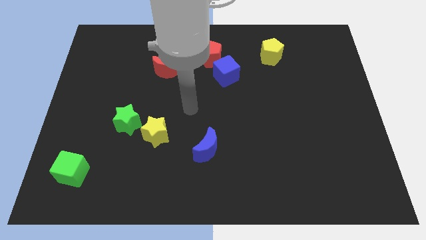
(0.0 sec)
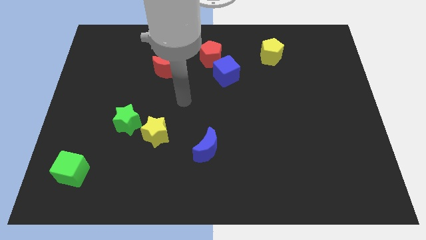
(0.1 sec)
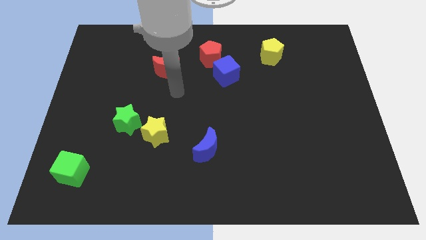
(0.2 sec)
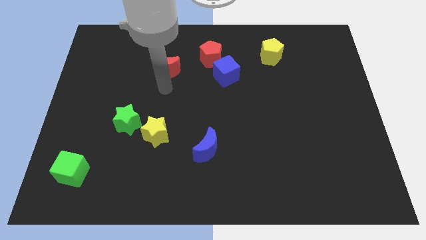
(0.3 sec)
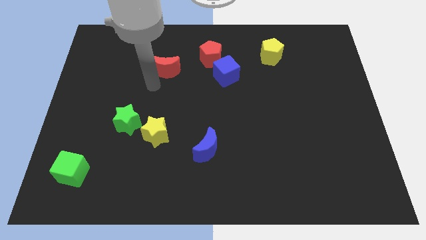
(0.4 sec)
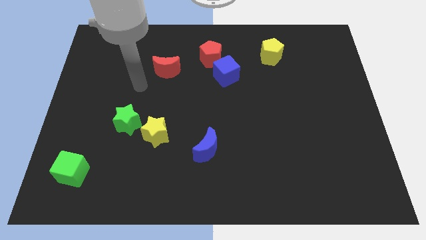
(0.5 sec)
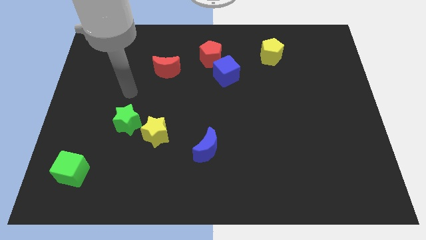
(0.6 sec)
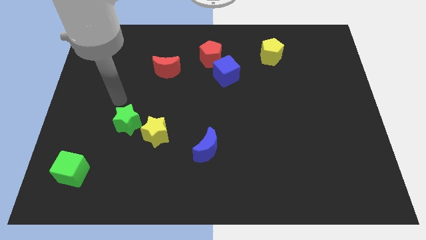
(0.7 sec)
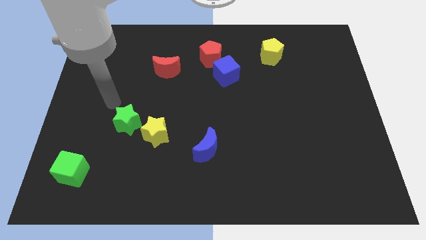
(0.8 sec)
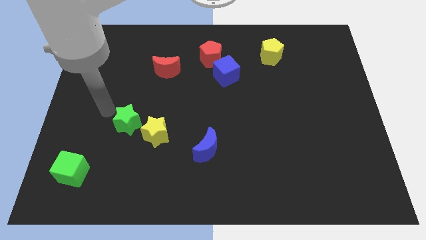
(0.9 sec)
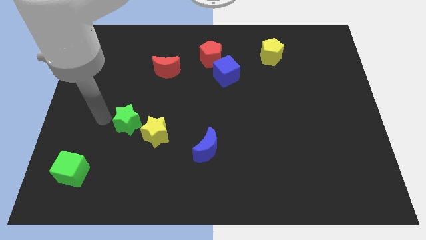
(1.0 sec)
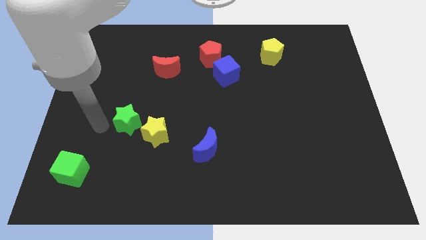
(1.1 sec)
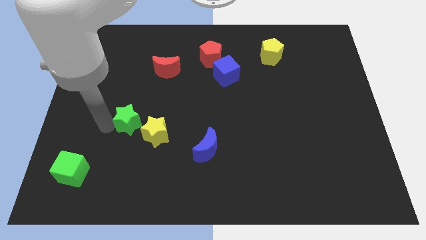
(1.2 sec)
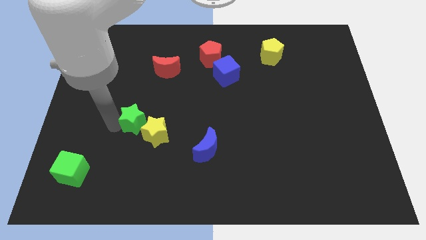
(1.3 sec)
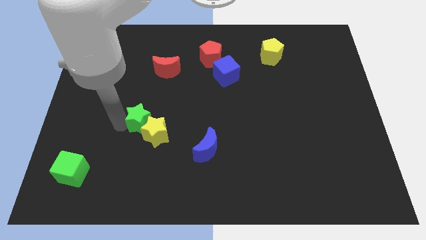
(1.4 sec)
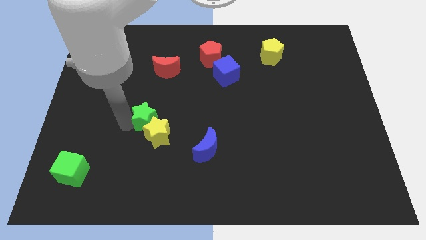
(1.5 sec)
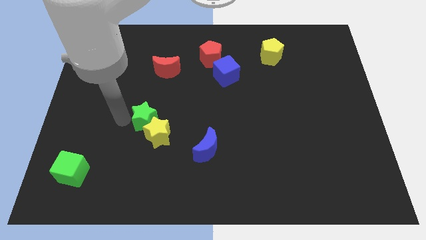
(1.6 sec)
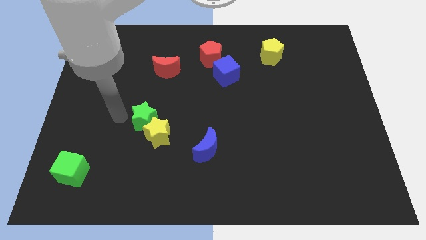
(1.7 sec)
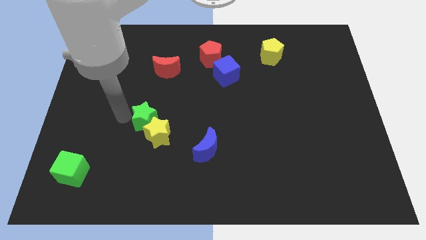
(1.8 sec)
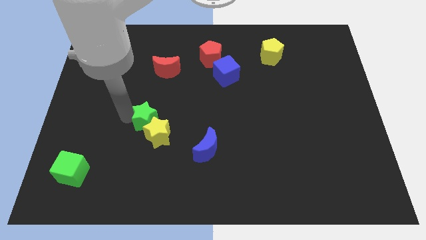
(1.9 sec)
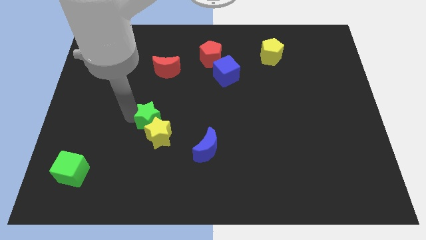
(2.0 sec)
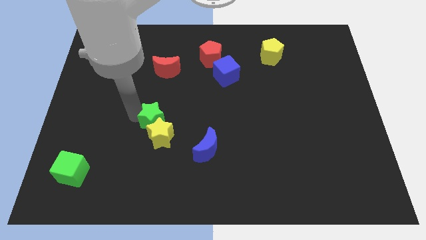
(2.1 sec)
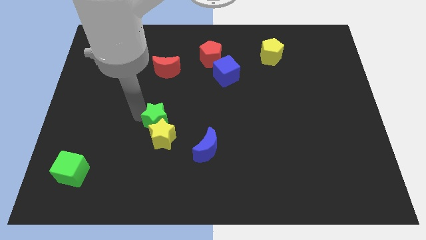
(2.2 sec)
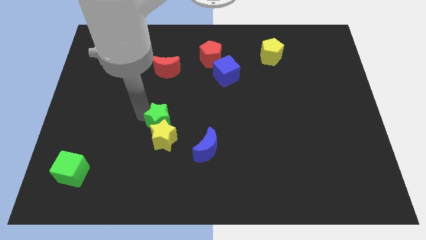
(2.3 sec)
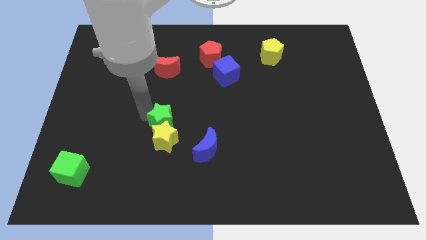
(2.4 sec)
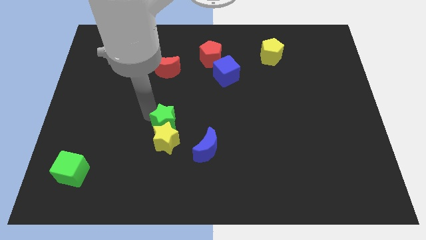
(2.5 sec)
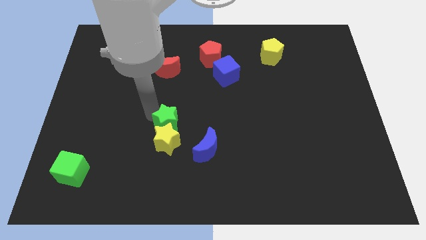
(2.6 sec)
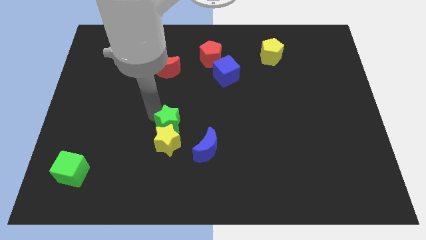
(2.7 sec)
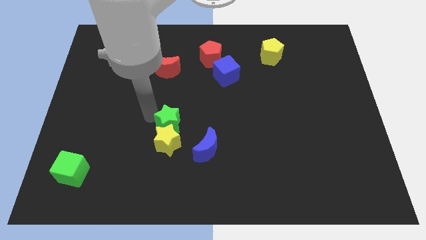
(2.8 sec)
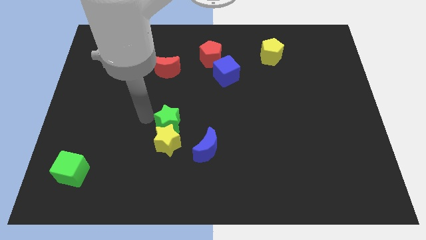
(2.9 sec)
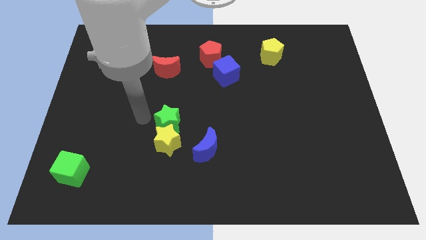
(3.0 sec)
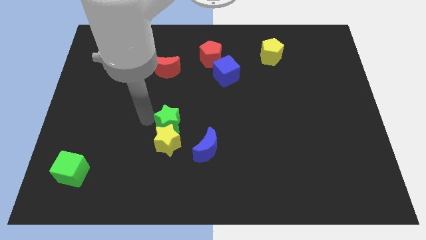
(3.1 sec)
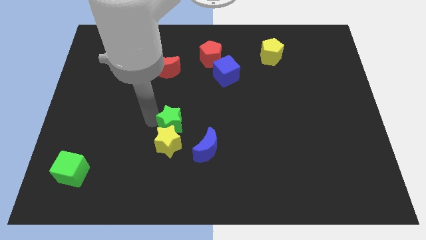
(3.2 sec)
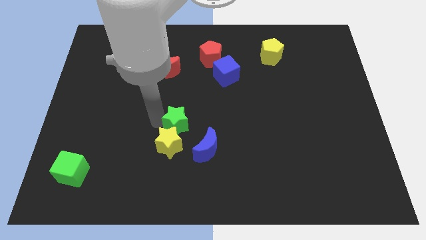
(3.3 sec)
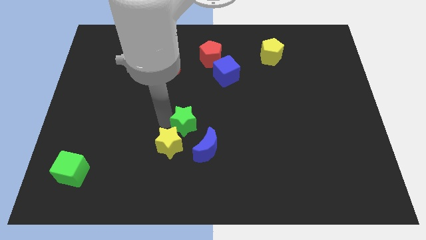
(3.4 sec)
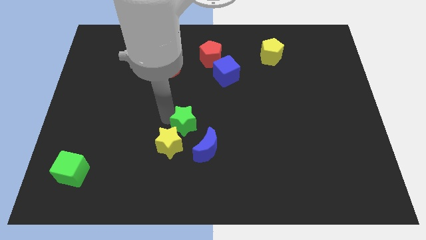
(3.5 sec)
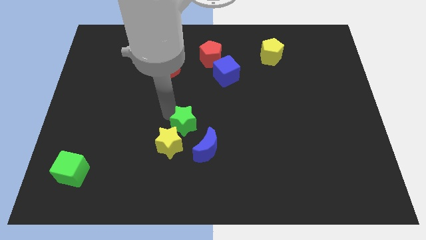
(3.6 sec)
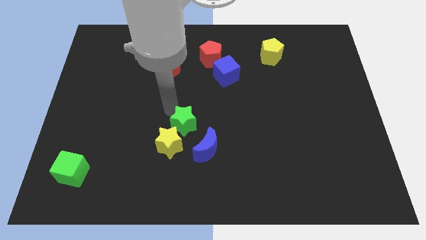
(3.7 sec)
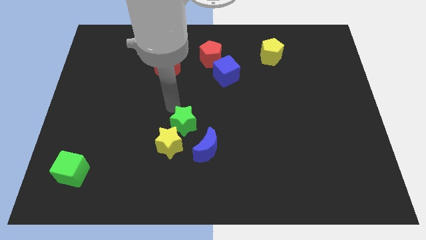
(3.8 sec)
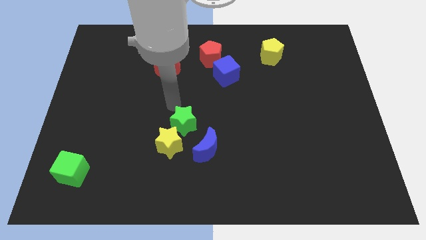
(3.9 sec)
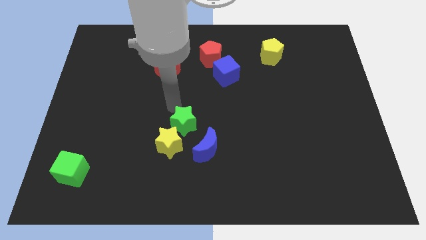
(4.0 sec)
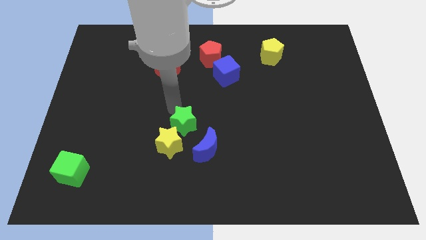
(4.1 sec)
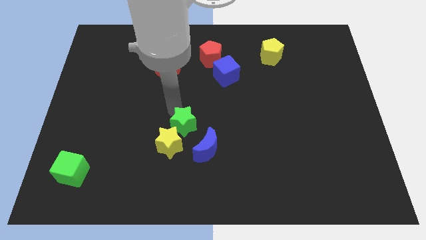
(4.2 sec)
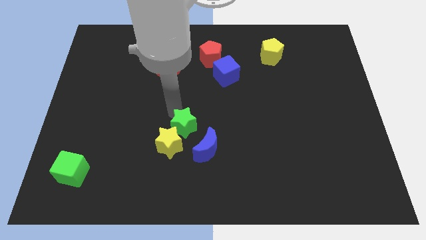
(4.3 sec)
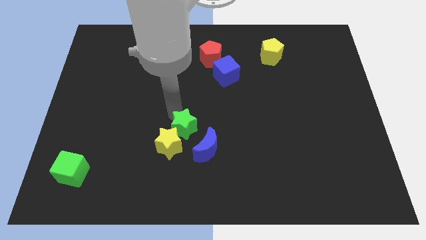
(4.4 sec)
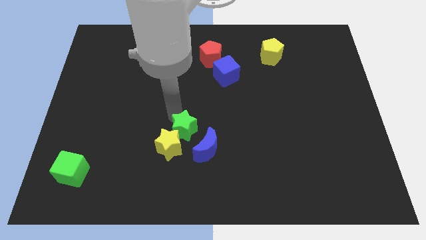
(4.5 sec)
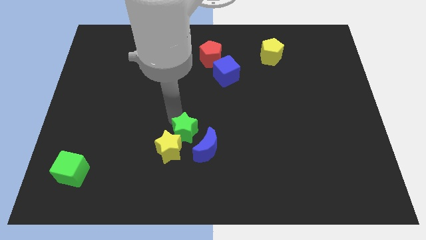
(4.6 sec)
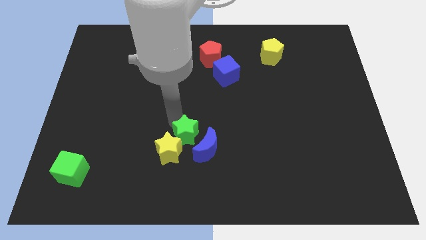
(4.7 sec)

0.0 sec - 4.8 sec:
put the green star to the blue moon

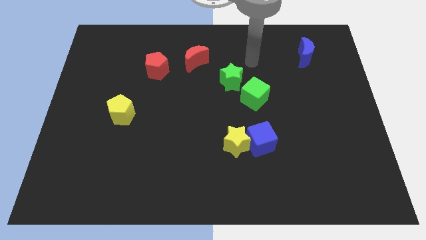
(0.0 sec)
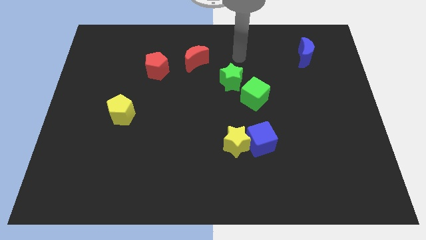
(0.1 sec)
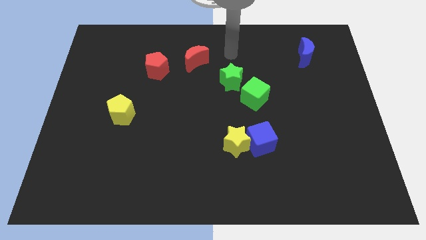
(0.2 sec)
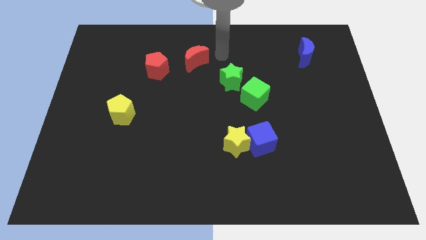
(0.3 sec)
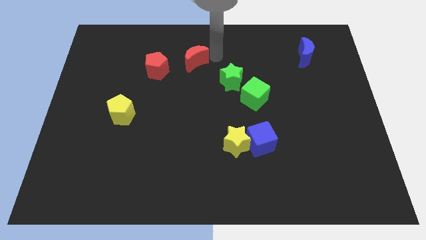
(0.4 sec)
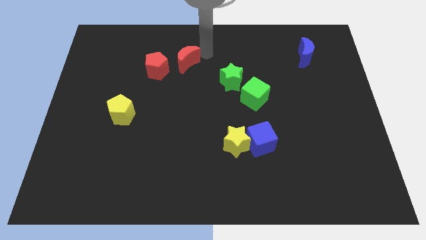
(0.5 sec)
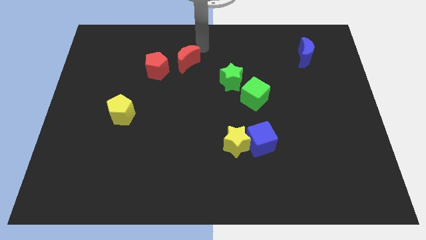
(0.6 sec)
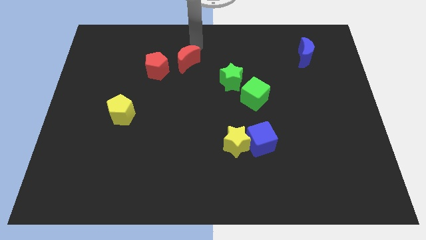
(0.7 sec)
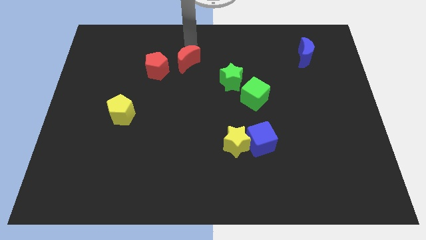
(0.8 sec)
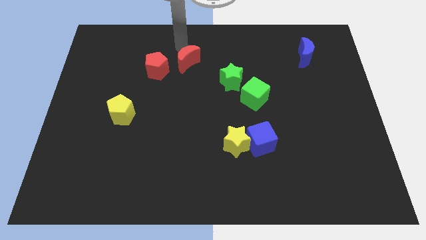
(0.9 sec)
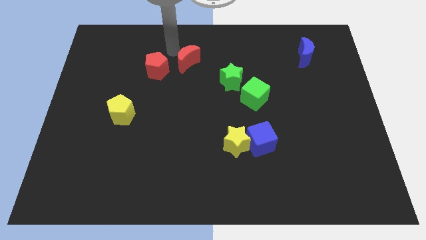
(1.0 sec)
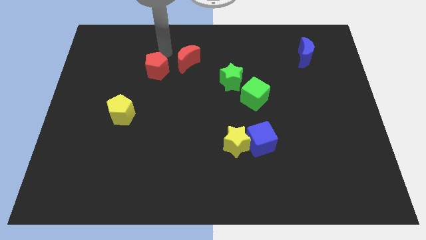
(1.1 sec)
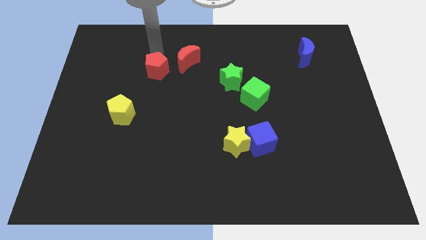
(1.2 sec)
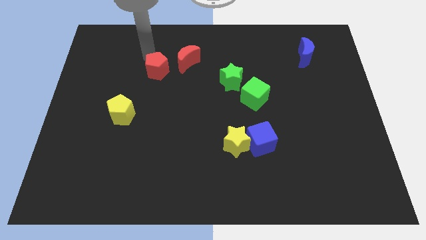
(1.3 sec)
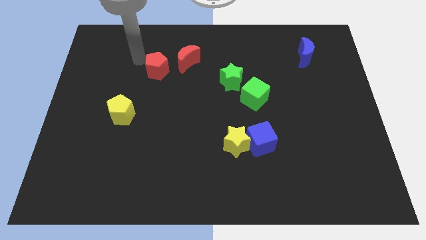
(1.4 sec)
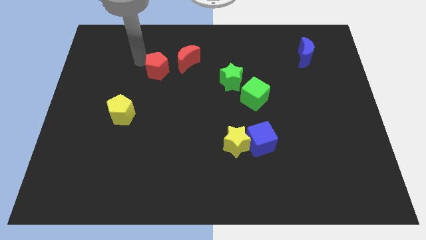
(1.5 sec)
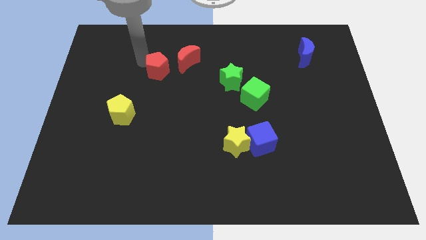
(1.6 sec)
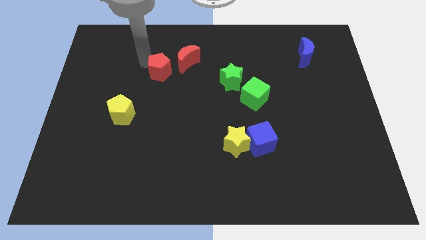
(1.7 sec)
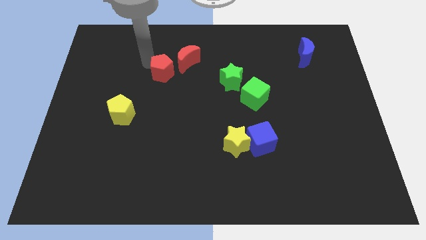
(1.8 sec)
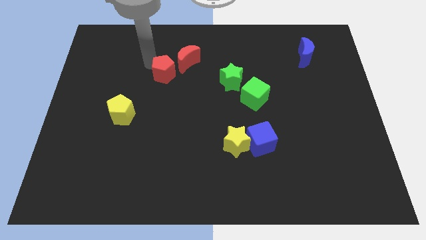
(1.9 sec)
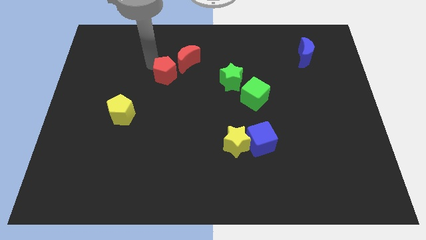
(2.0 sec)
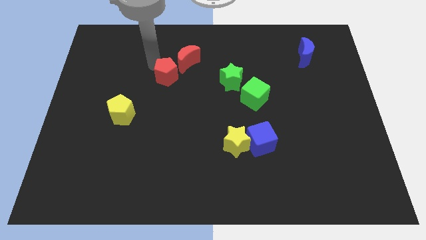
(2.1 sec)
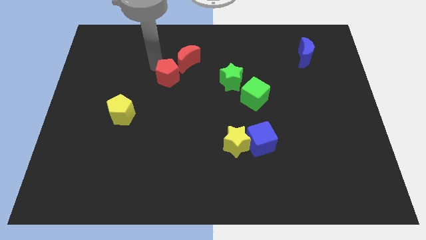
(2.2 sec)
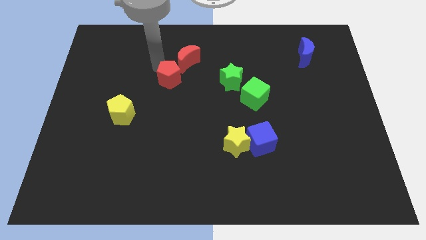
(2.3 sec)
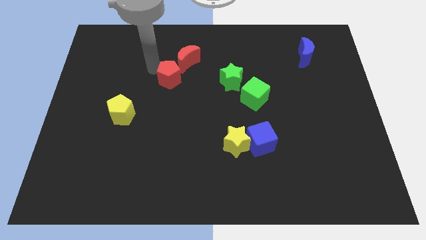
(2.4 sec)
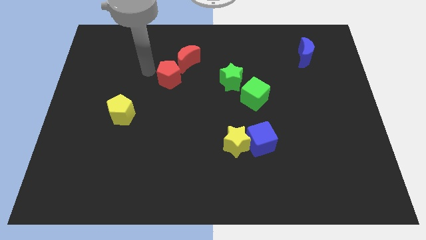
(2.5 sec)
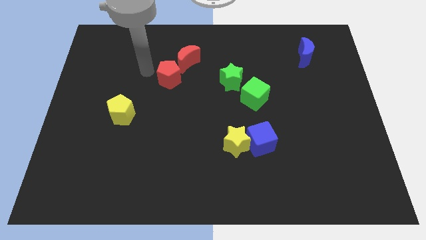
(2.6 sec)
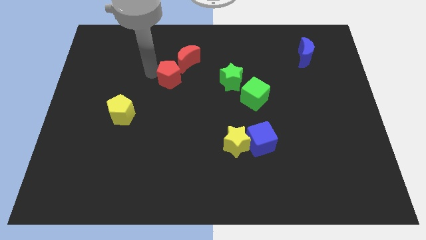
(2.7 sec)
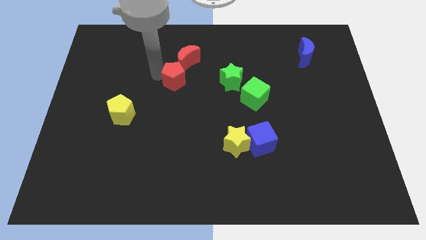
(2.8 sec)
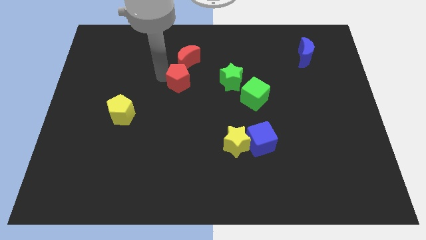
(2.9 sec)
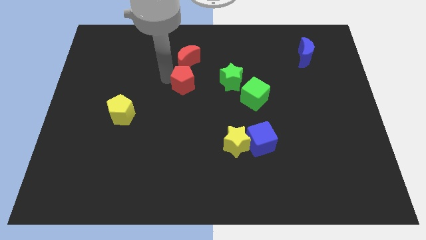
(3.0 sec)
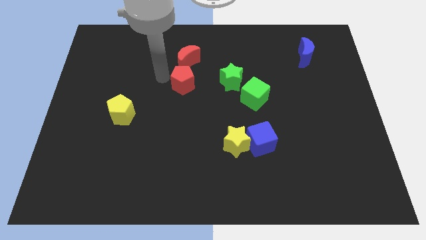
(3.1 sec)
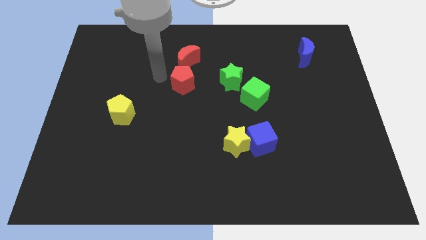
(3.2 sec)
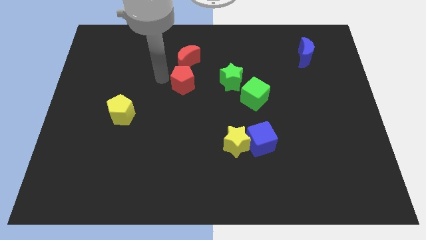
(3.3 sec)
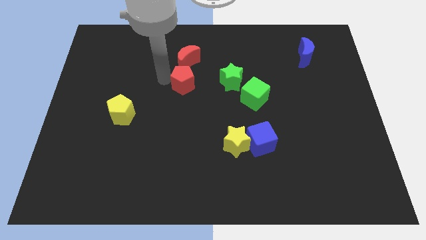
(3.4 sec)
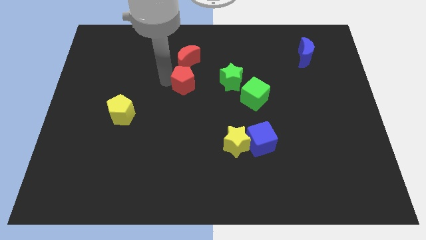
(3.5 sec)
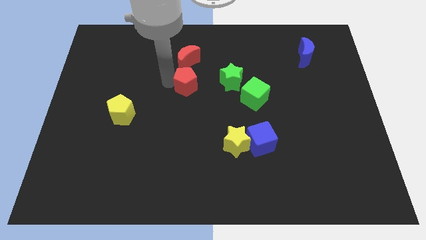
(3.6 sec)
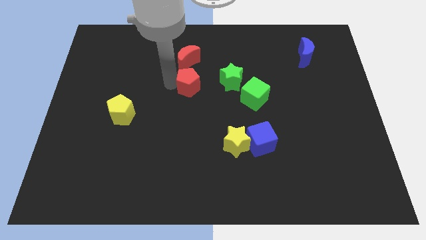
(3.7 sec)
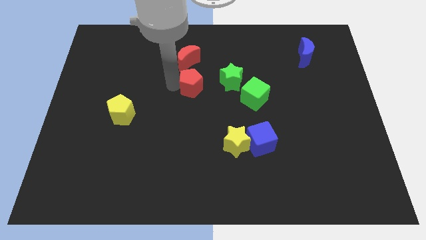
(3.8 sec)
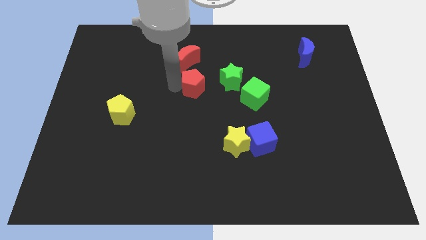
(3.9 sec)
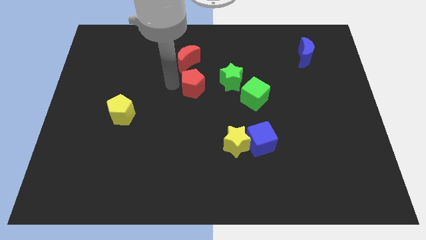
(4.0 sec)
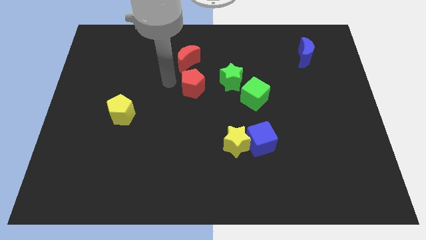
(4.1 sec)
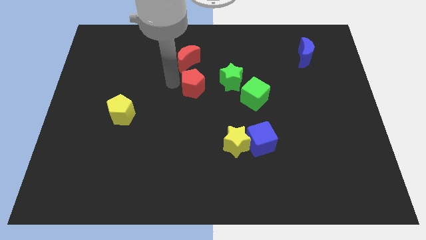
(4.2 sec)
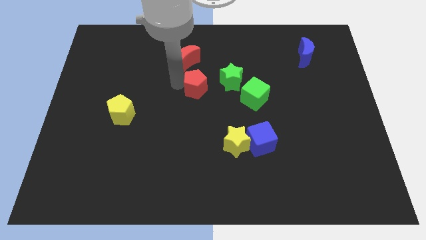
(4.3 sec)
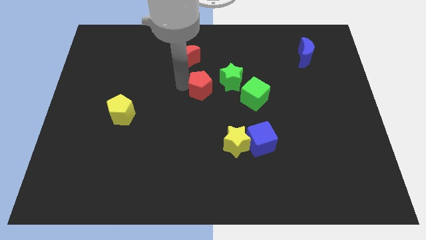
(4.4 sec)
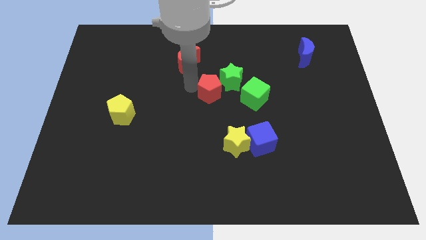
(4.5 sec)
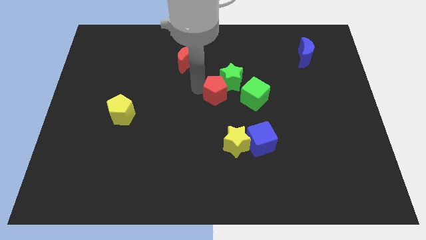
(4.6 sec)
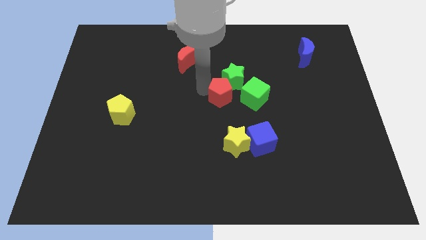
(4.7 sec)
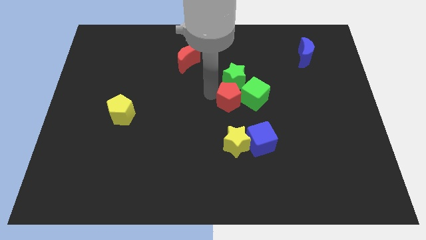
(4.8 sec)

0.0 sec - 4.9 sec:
push the red pentagon next to the green cube
